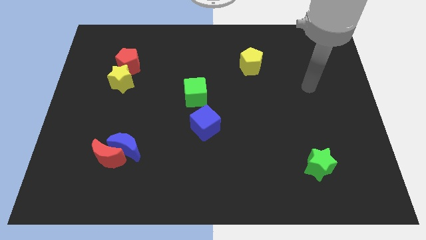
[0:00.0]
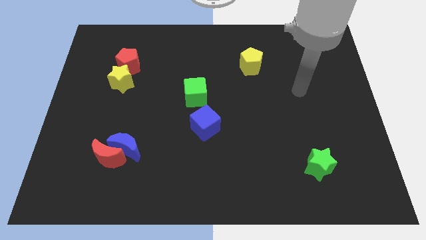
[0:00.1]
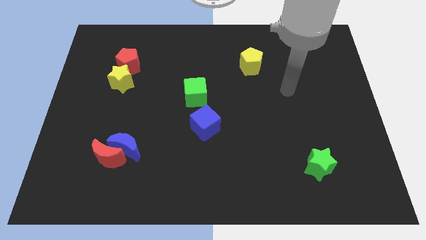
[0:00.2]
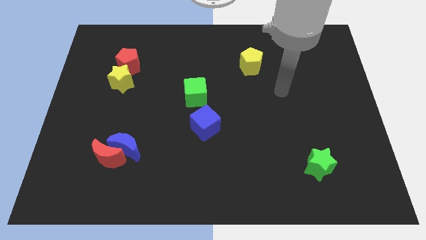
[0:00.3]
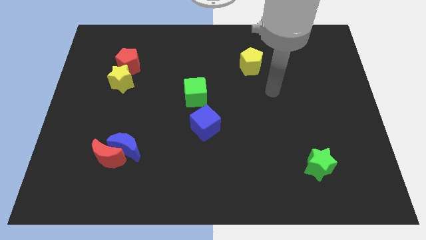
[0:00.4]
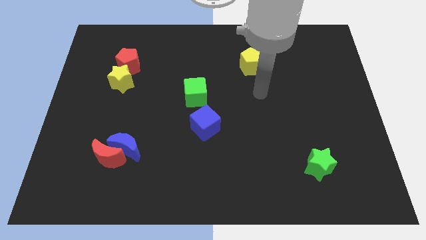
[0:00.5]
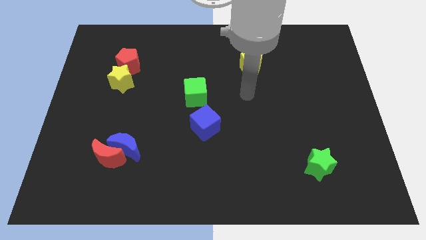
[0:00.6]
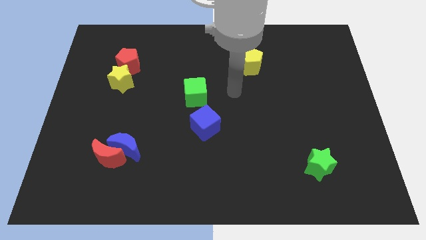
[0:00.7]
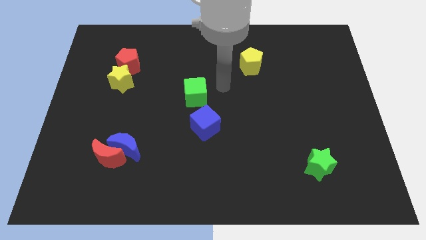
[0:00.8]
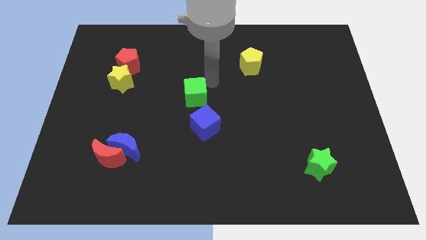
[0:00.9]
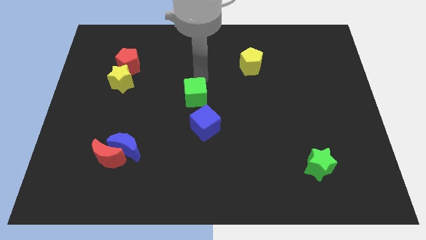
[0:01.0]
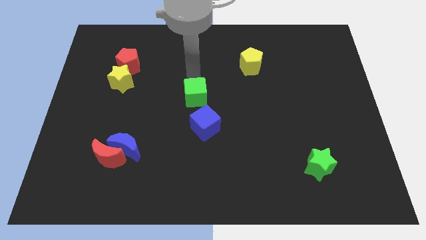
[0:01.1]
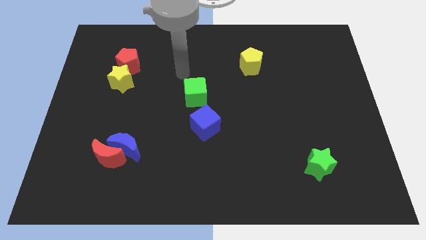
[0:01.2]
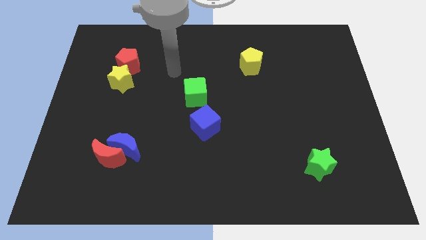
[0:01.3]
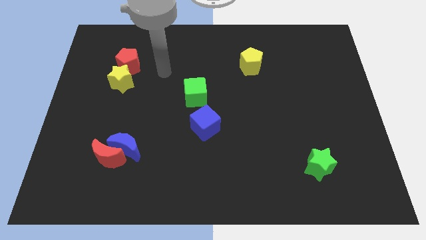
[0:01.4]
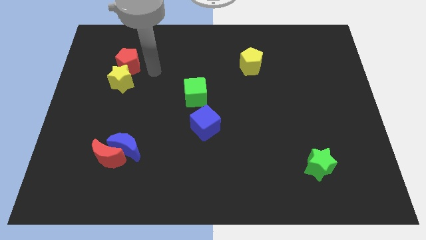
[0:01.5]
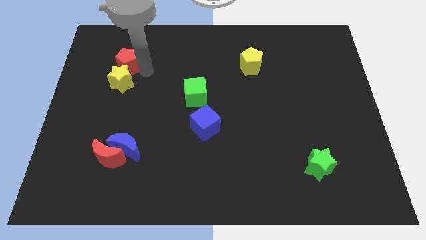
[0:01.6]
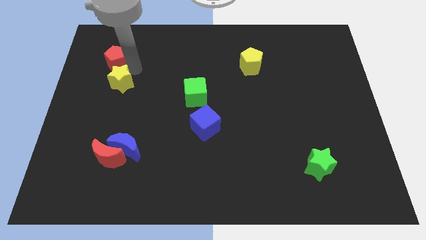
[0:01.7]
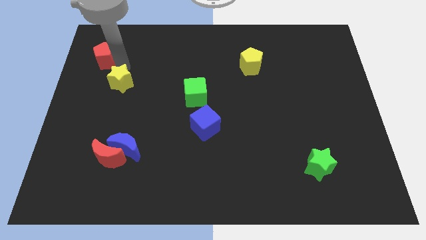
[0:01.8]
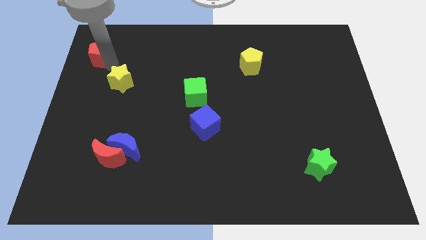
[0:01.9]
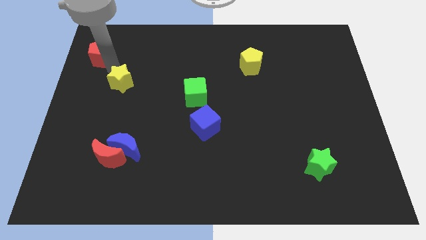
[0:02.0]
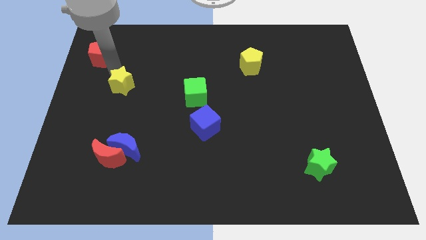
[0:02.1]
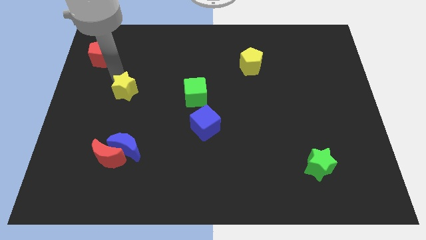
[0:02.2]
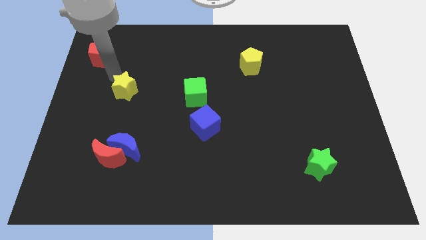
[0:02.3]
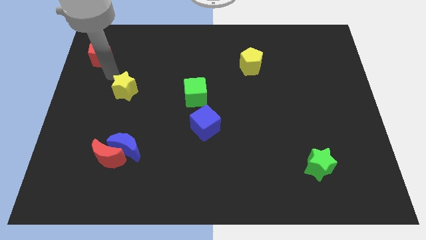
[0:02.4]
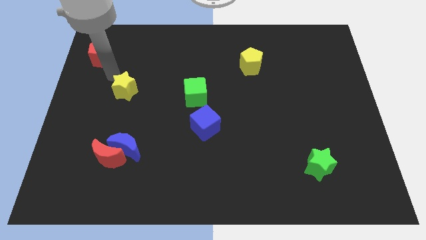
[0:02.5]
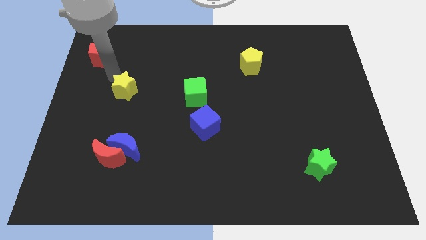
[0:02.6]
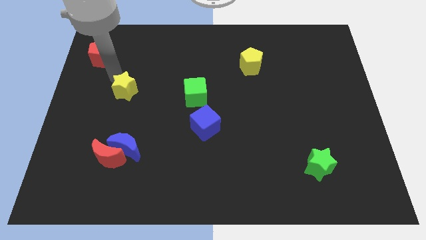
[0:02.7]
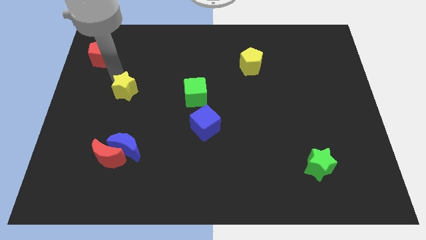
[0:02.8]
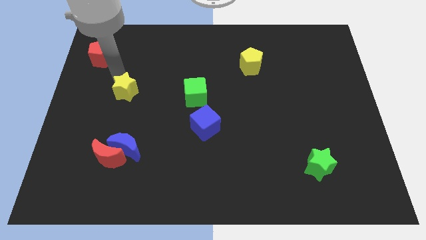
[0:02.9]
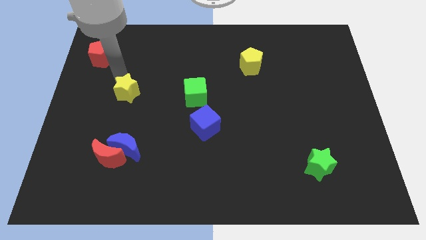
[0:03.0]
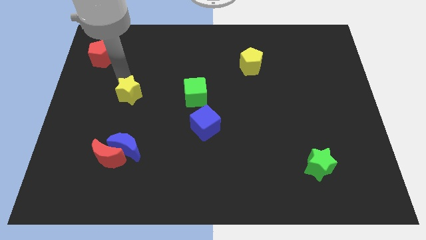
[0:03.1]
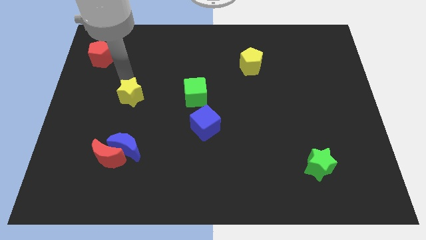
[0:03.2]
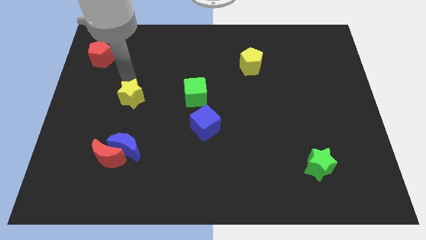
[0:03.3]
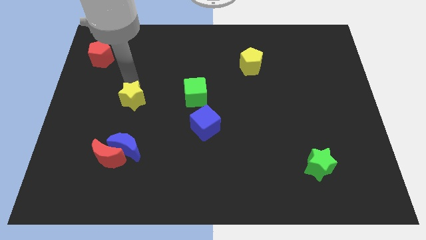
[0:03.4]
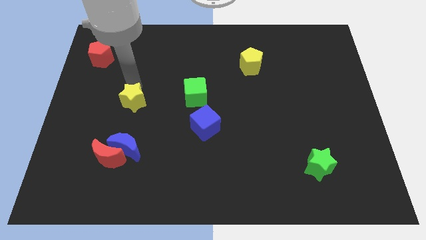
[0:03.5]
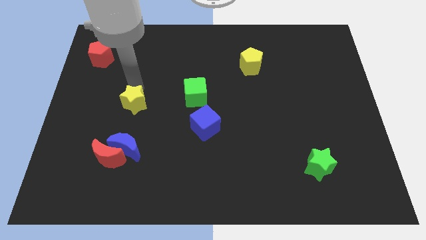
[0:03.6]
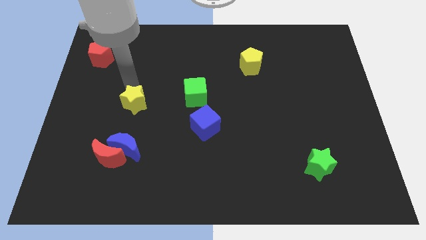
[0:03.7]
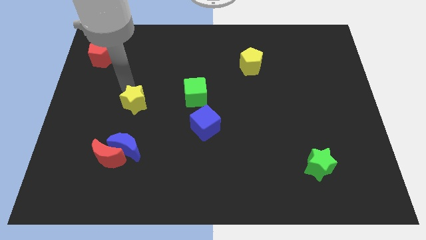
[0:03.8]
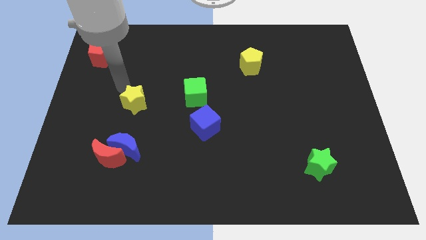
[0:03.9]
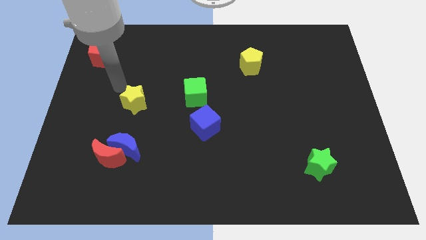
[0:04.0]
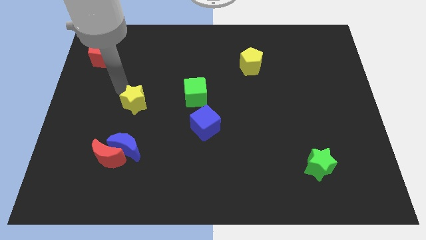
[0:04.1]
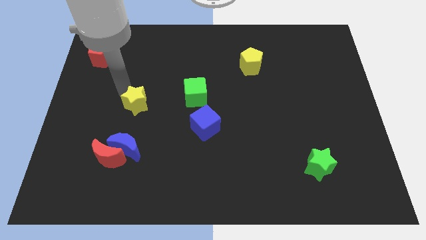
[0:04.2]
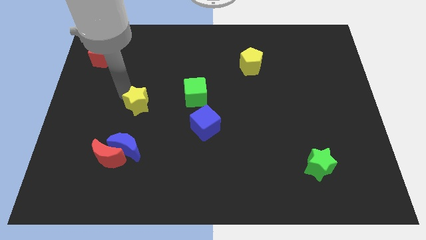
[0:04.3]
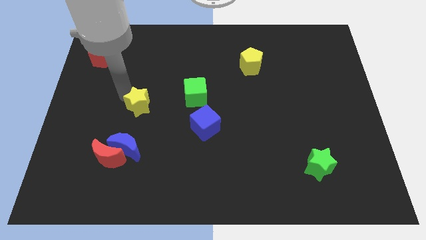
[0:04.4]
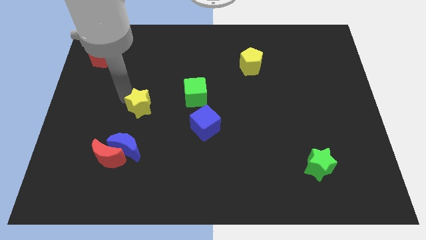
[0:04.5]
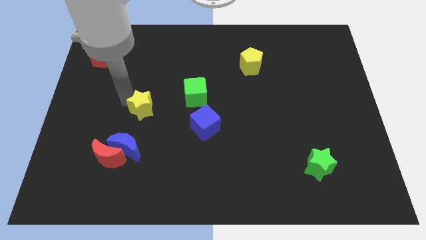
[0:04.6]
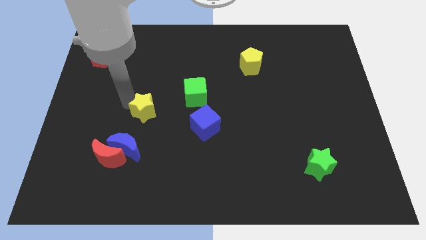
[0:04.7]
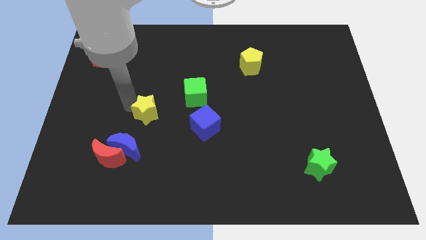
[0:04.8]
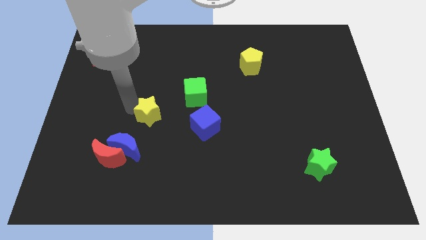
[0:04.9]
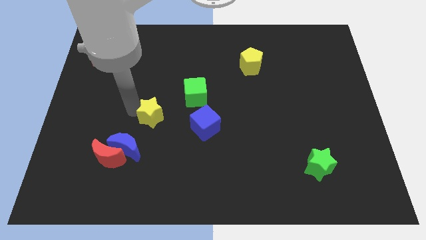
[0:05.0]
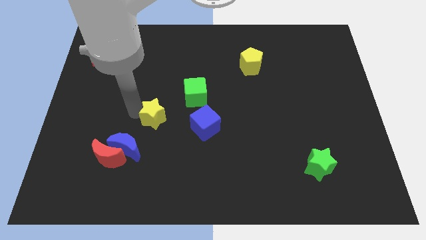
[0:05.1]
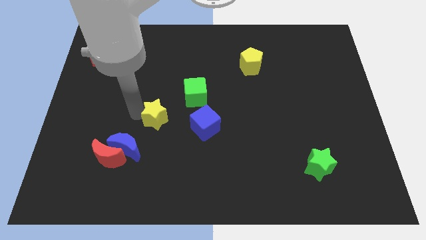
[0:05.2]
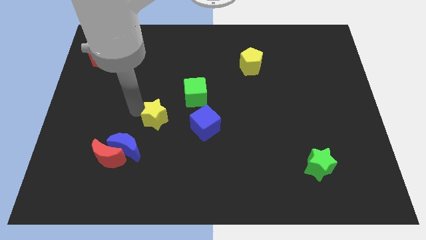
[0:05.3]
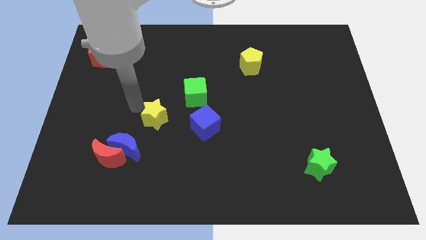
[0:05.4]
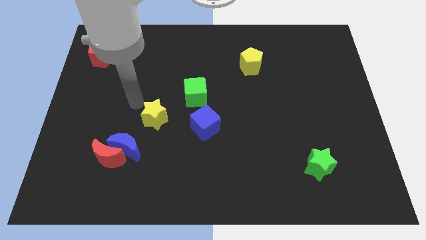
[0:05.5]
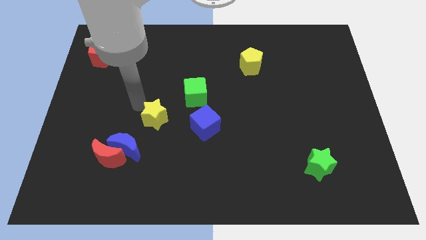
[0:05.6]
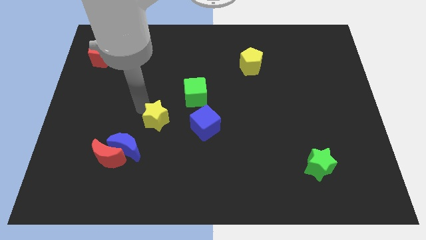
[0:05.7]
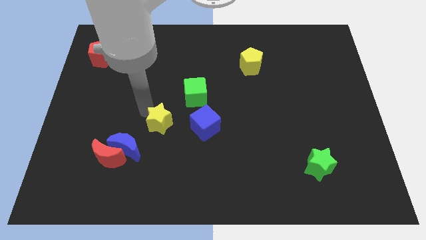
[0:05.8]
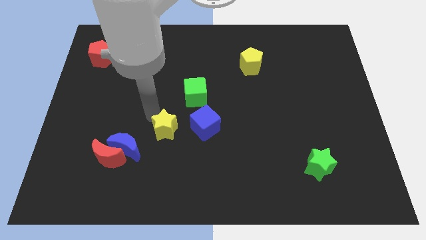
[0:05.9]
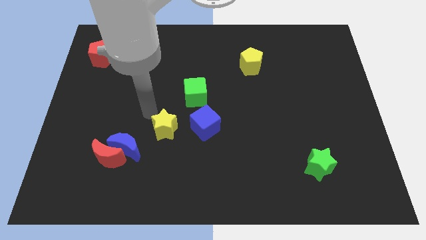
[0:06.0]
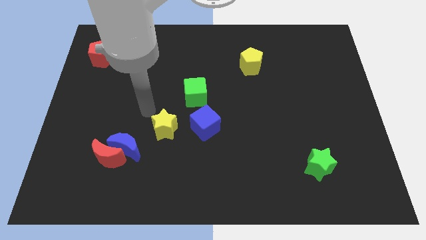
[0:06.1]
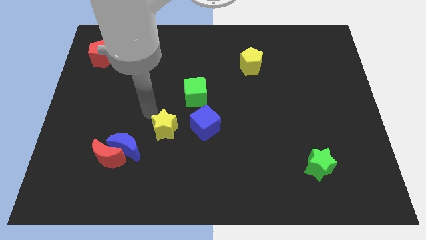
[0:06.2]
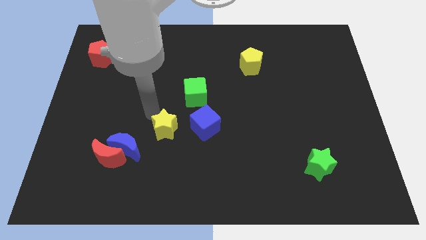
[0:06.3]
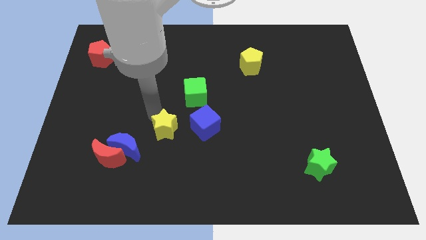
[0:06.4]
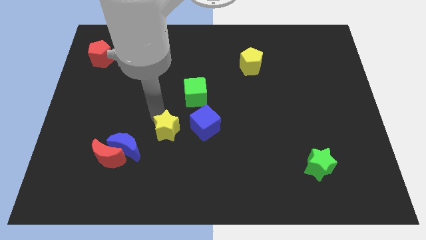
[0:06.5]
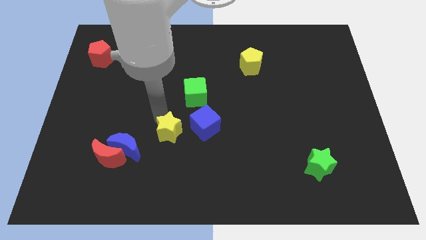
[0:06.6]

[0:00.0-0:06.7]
slide the yellow star diagonally down and to the left of the blue cube

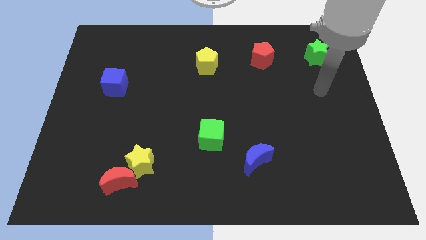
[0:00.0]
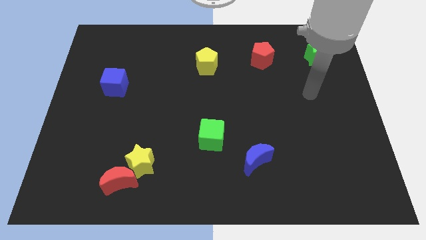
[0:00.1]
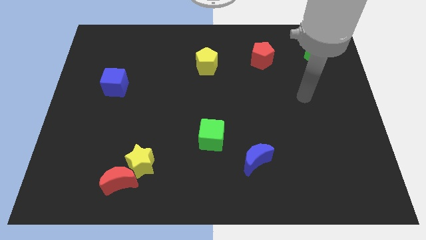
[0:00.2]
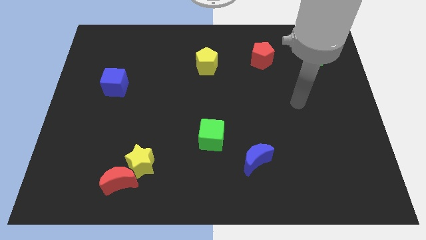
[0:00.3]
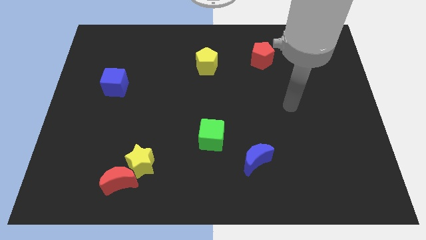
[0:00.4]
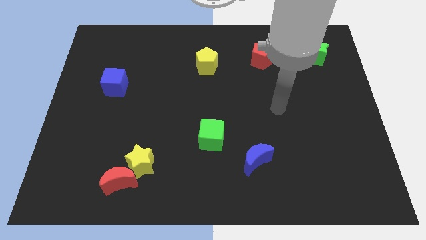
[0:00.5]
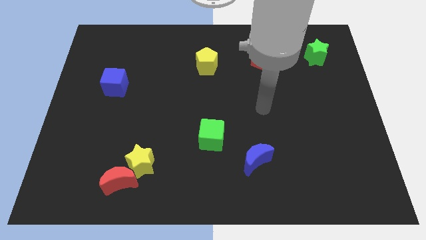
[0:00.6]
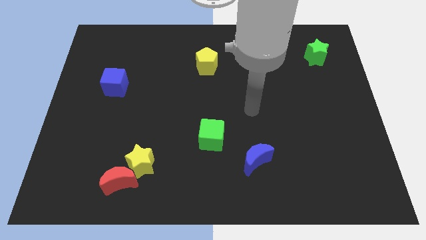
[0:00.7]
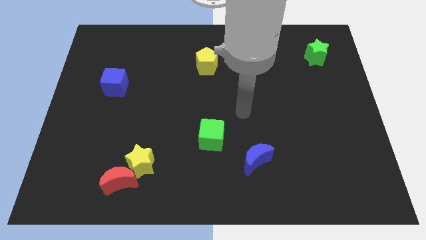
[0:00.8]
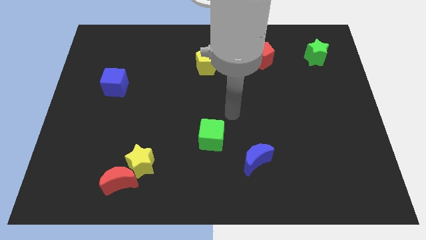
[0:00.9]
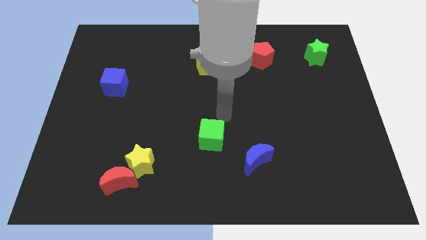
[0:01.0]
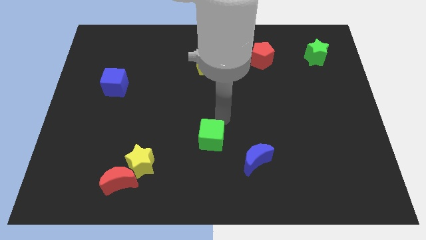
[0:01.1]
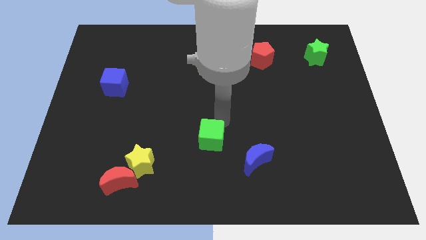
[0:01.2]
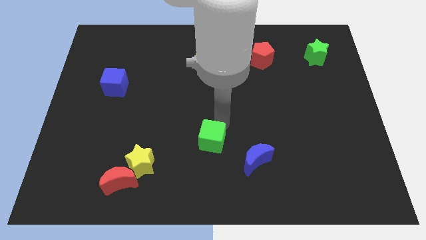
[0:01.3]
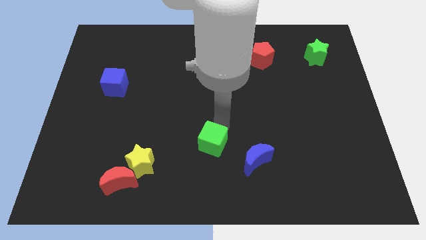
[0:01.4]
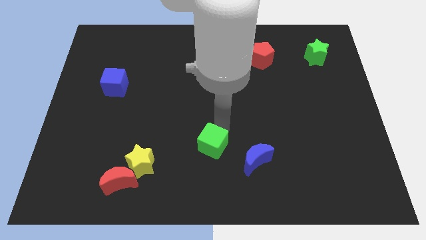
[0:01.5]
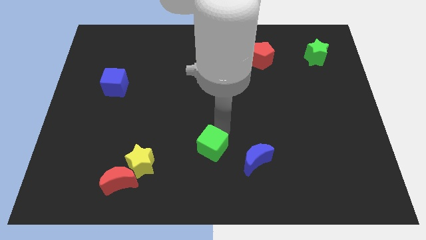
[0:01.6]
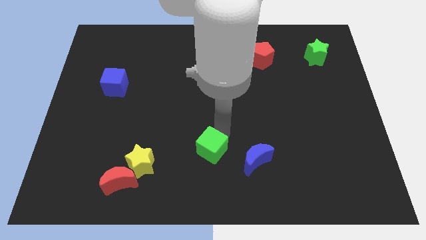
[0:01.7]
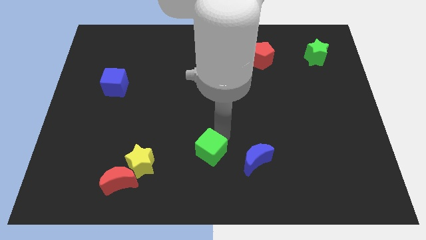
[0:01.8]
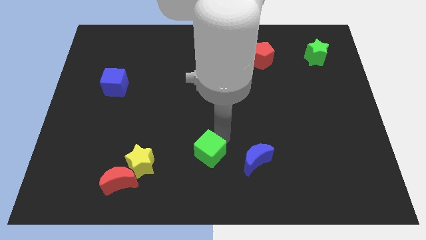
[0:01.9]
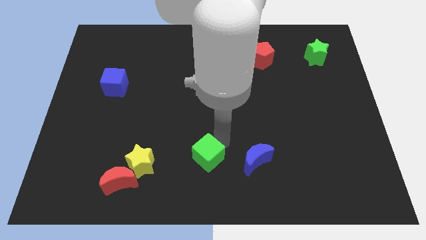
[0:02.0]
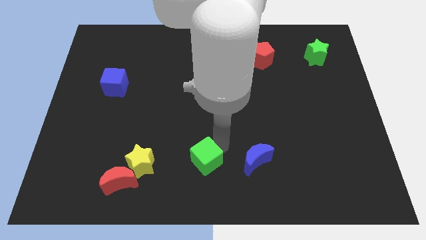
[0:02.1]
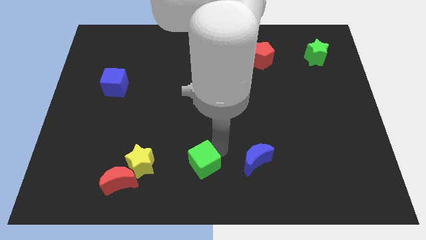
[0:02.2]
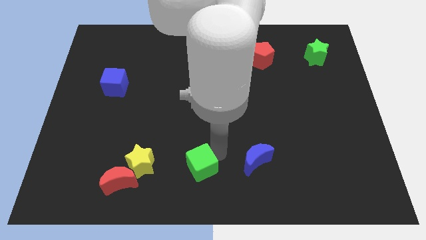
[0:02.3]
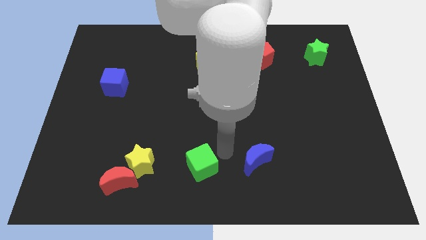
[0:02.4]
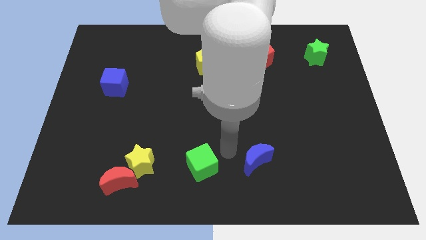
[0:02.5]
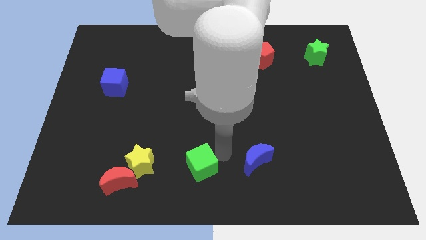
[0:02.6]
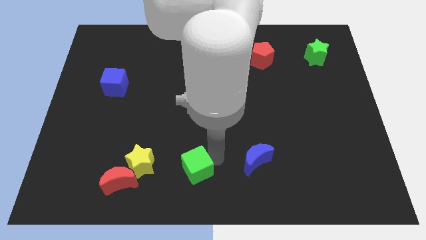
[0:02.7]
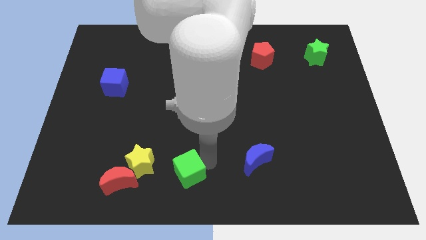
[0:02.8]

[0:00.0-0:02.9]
move the green cube just right of the red moon
